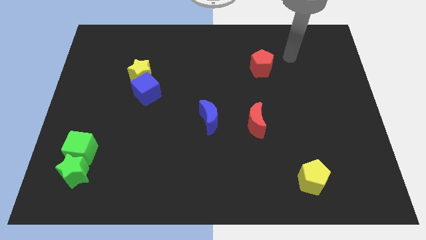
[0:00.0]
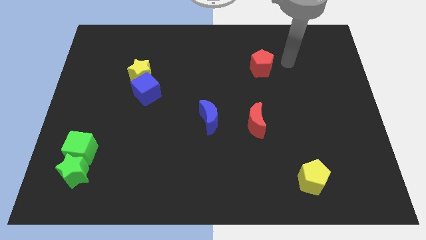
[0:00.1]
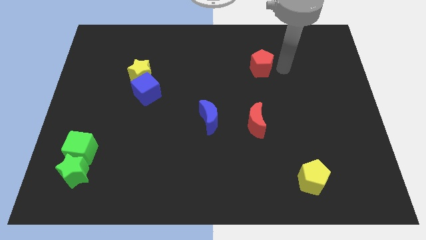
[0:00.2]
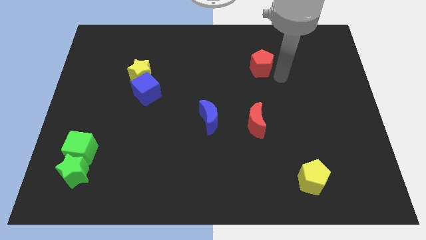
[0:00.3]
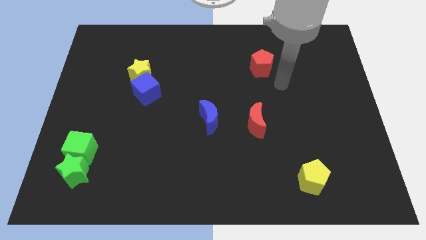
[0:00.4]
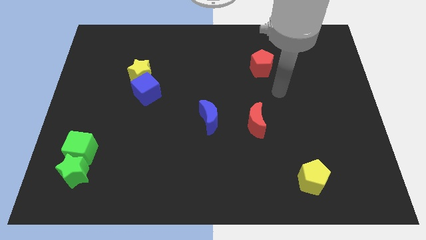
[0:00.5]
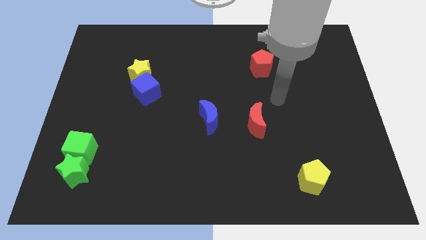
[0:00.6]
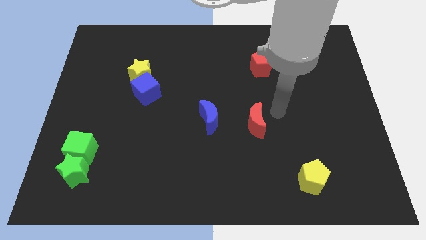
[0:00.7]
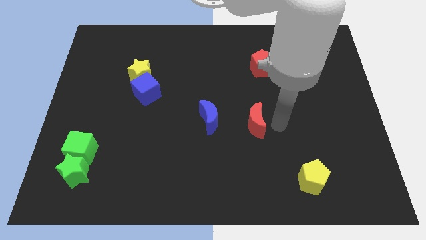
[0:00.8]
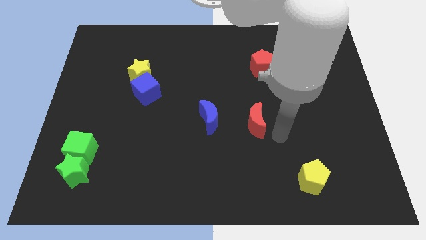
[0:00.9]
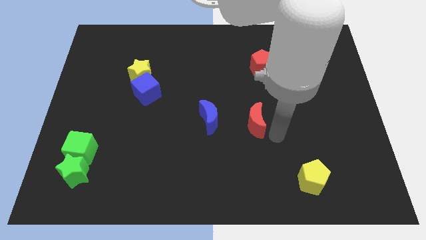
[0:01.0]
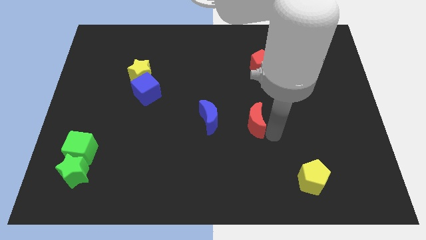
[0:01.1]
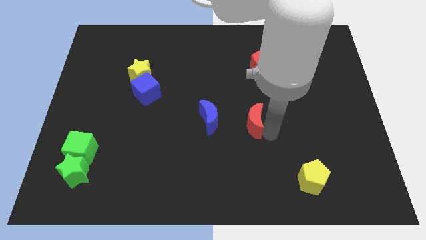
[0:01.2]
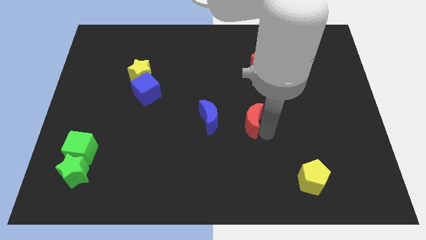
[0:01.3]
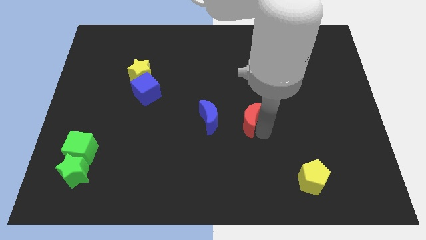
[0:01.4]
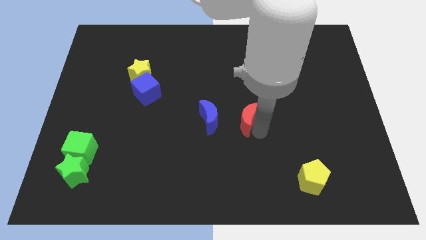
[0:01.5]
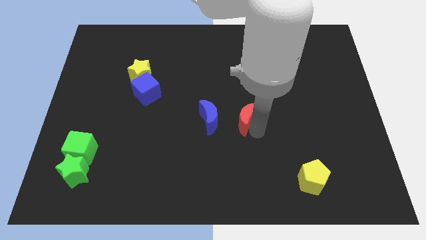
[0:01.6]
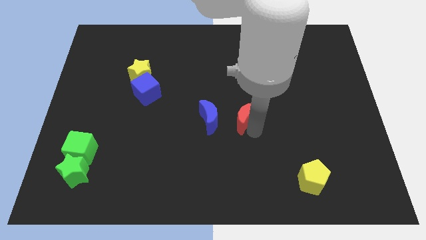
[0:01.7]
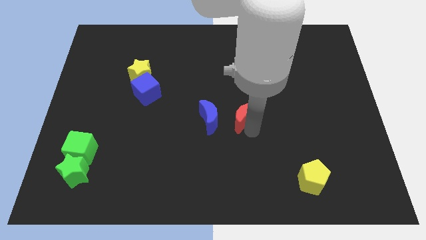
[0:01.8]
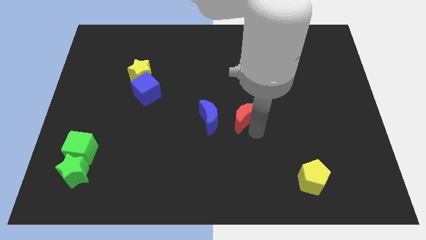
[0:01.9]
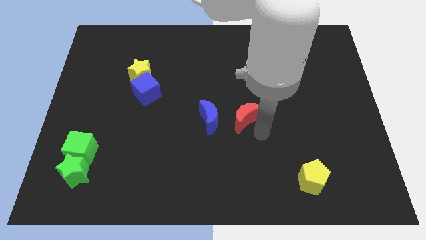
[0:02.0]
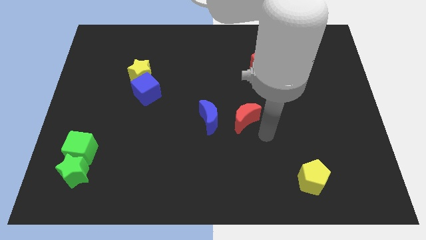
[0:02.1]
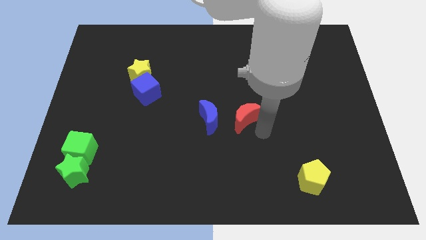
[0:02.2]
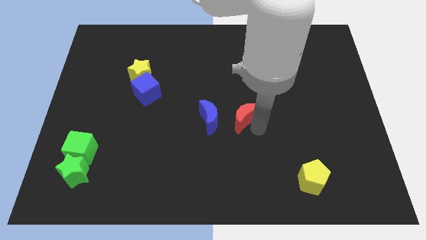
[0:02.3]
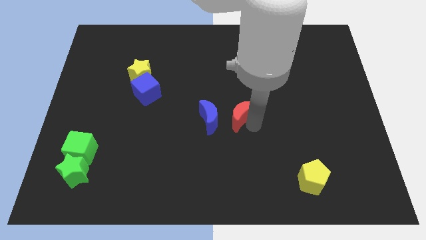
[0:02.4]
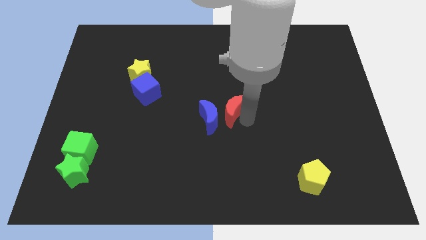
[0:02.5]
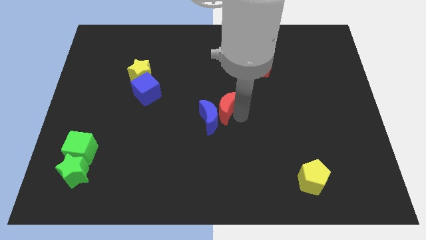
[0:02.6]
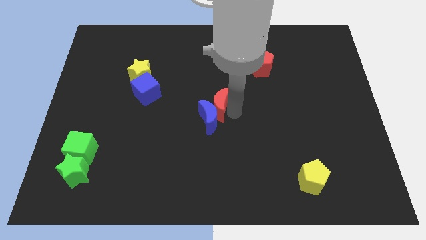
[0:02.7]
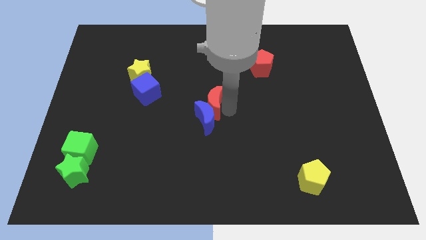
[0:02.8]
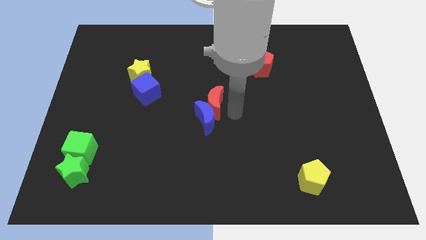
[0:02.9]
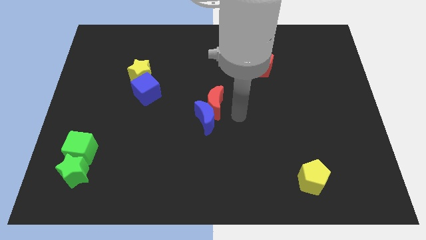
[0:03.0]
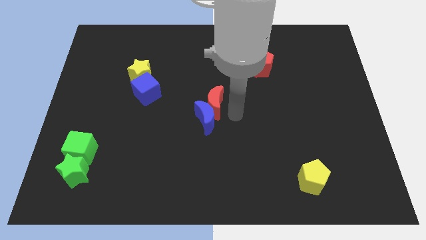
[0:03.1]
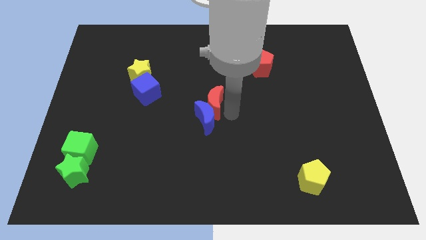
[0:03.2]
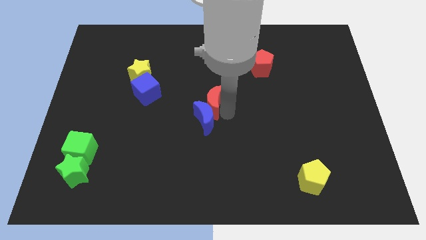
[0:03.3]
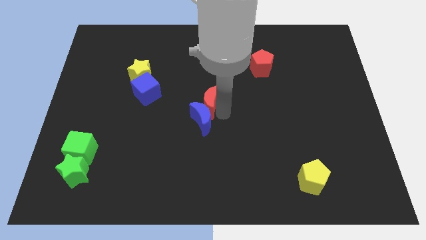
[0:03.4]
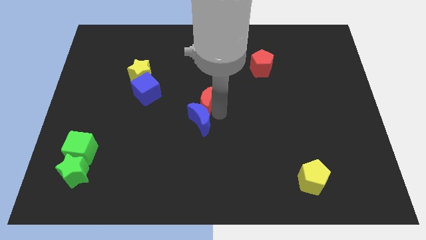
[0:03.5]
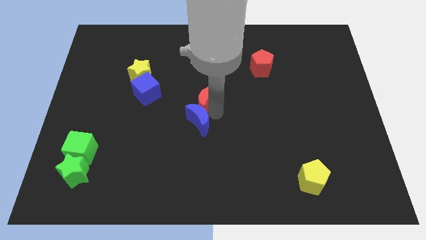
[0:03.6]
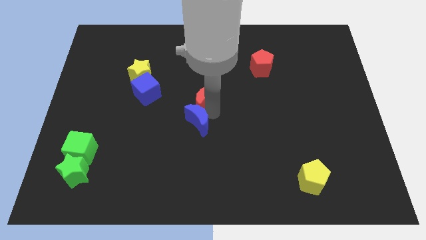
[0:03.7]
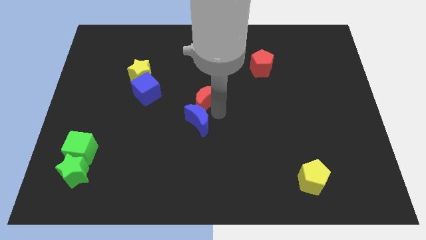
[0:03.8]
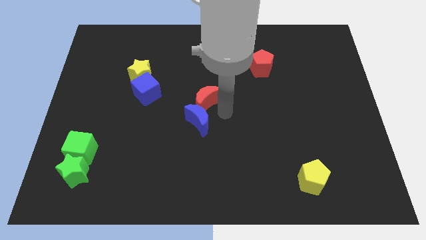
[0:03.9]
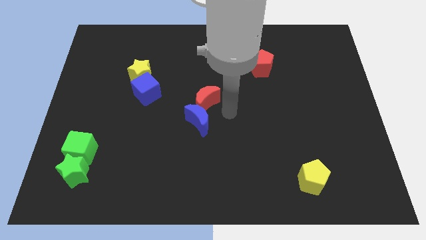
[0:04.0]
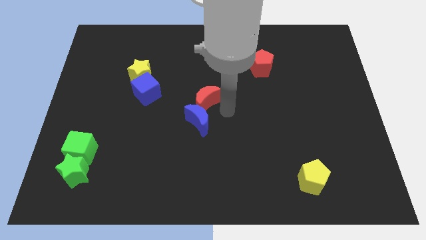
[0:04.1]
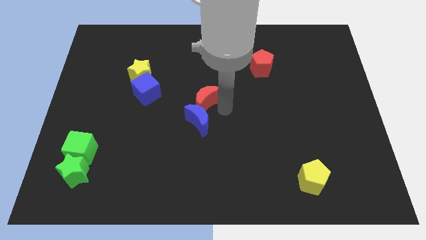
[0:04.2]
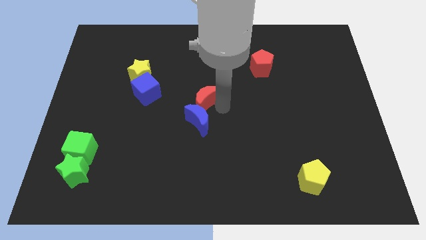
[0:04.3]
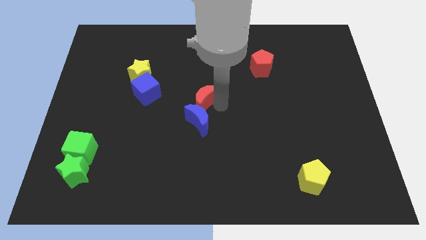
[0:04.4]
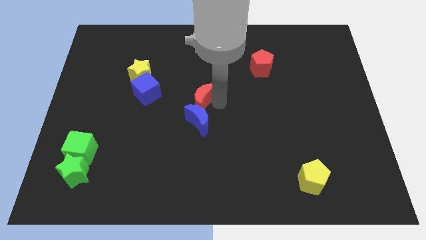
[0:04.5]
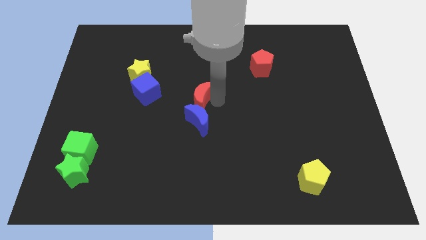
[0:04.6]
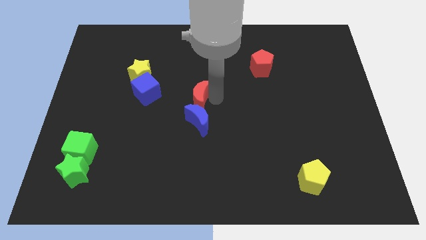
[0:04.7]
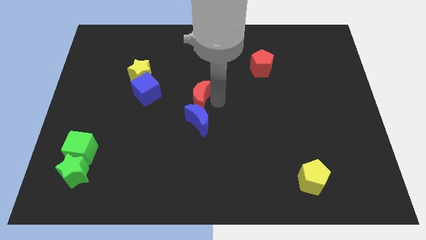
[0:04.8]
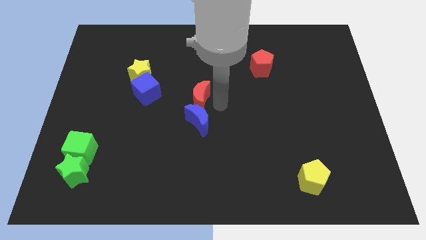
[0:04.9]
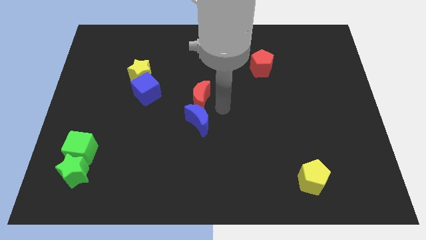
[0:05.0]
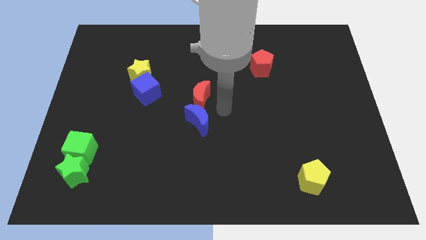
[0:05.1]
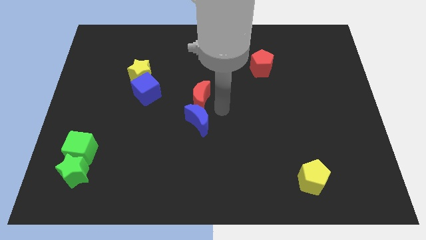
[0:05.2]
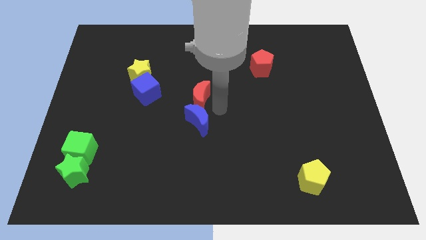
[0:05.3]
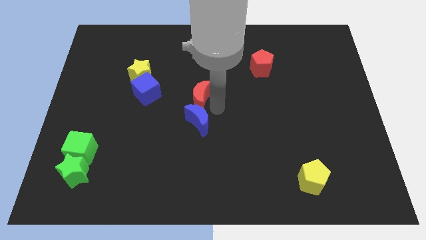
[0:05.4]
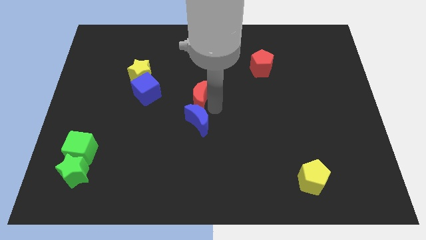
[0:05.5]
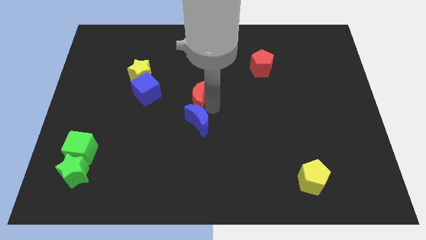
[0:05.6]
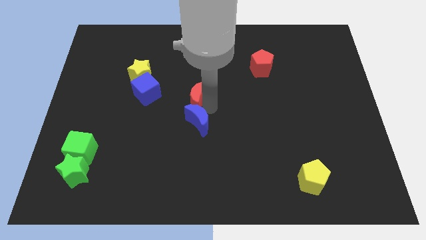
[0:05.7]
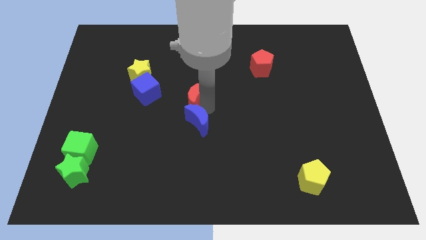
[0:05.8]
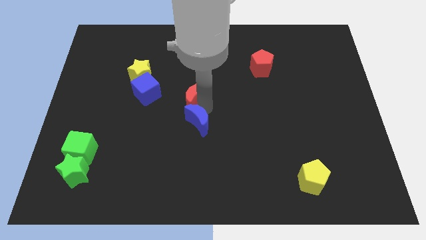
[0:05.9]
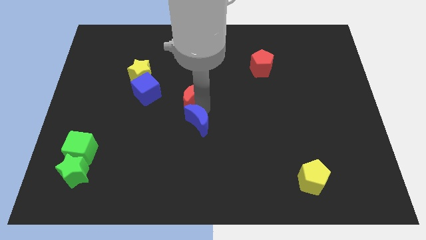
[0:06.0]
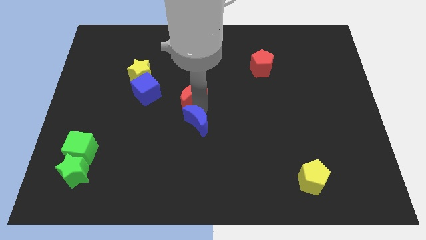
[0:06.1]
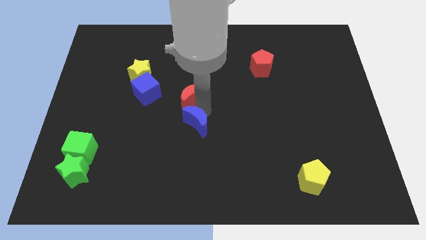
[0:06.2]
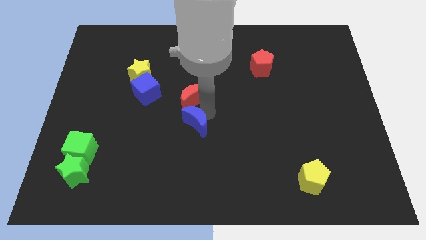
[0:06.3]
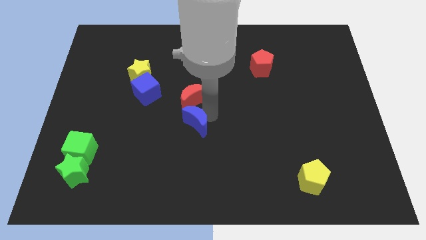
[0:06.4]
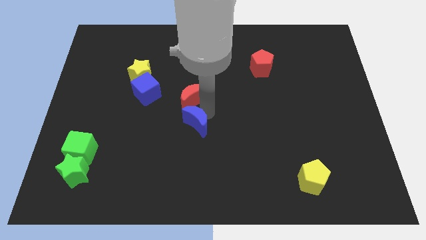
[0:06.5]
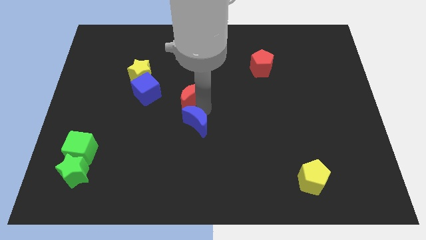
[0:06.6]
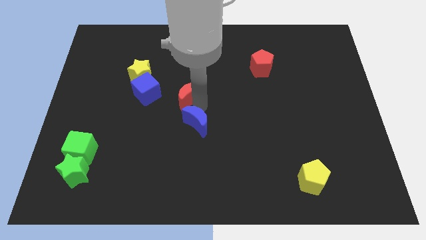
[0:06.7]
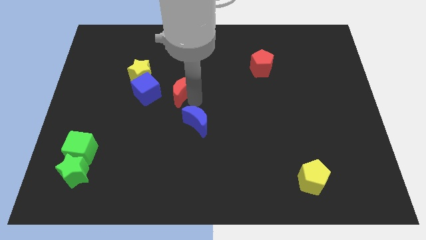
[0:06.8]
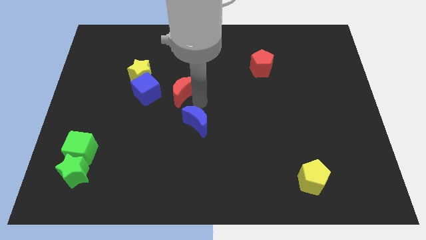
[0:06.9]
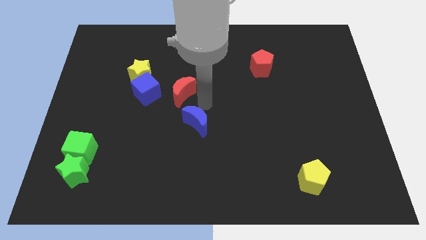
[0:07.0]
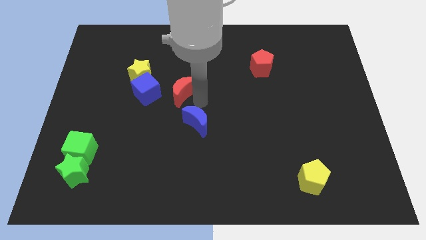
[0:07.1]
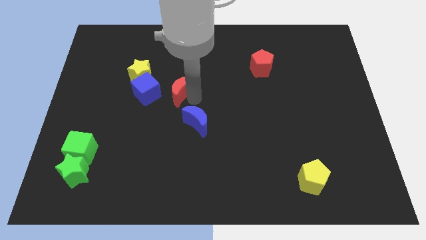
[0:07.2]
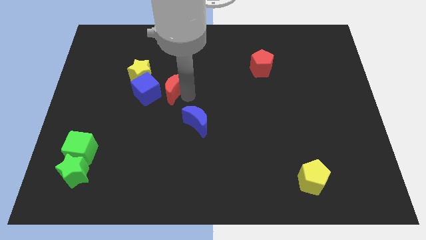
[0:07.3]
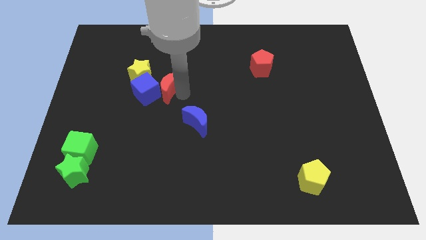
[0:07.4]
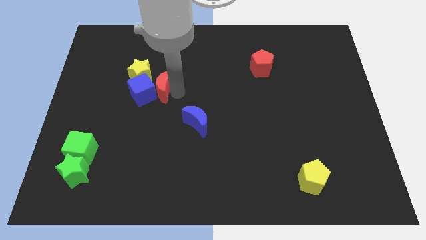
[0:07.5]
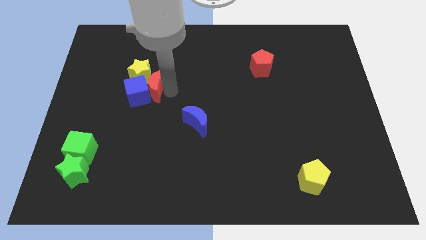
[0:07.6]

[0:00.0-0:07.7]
slide the red moon towards the yellow star
